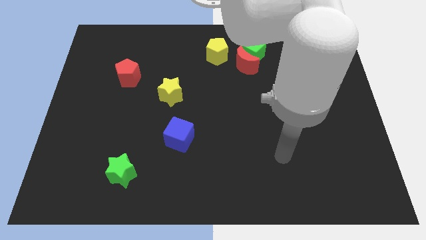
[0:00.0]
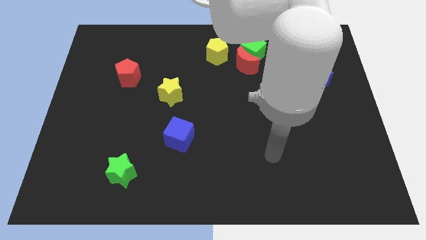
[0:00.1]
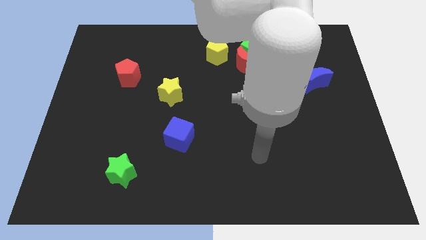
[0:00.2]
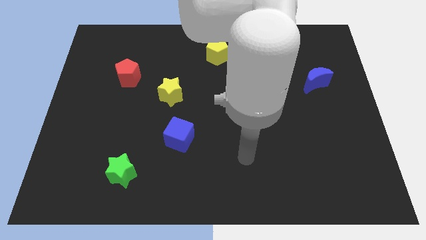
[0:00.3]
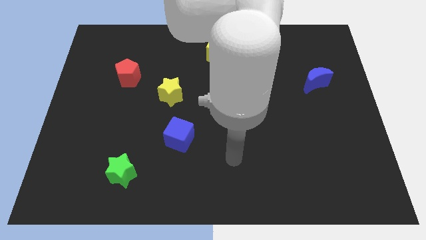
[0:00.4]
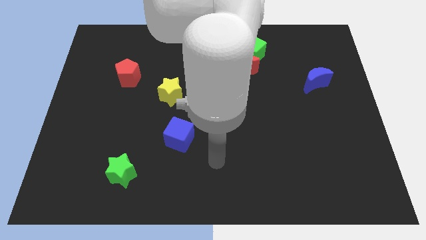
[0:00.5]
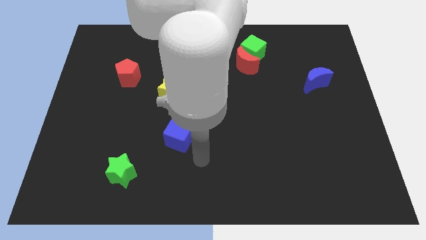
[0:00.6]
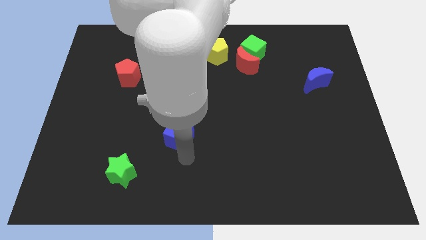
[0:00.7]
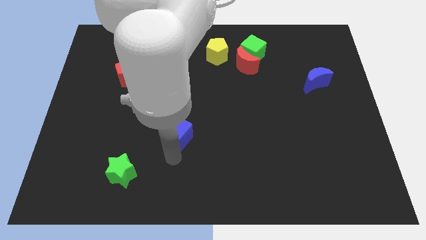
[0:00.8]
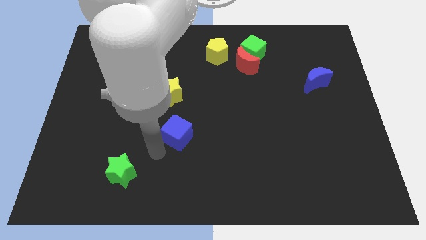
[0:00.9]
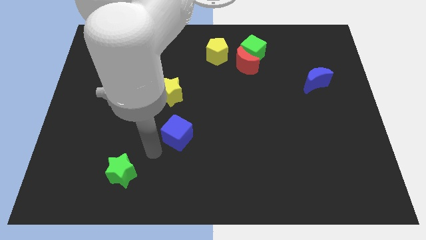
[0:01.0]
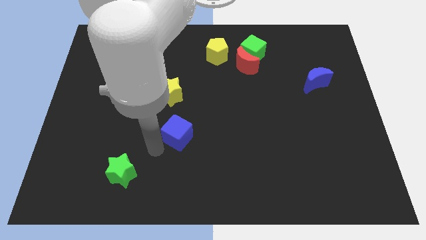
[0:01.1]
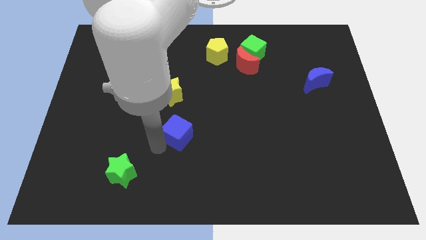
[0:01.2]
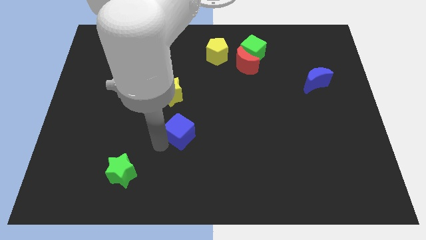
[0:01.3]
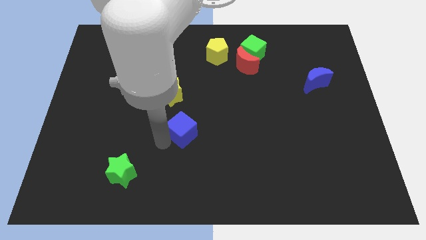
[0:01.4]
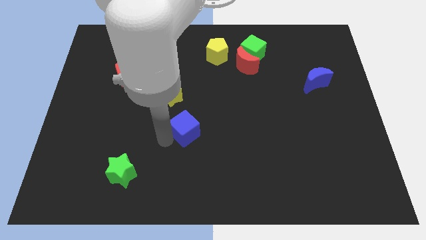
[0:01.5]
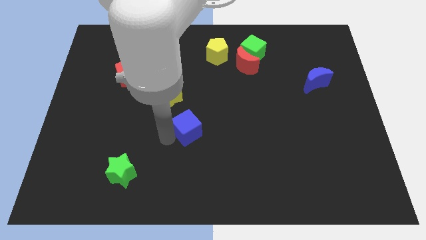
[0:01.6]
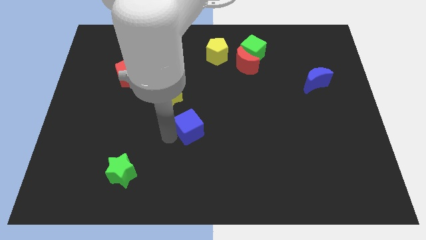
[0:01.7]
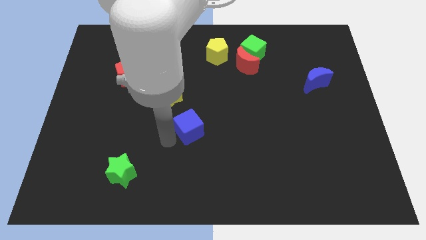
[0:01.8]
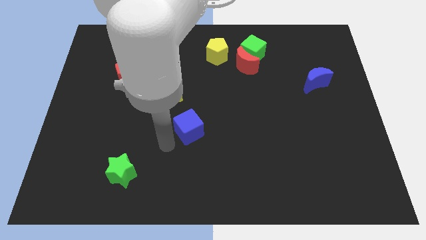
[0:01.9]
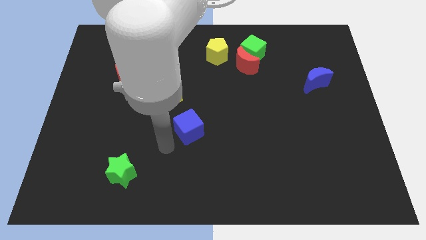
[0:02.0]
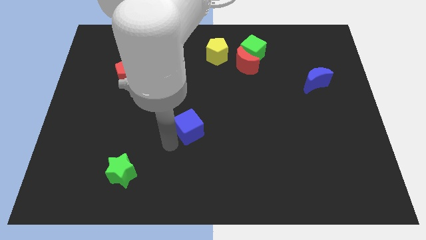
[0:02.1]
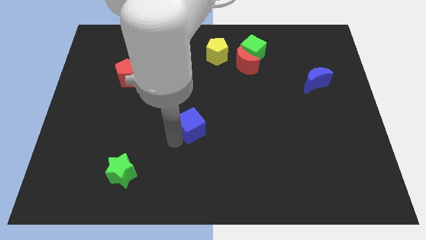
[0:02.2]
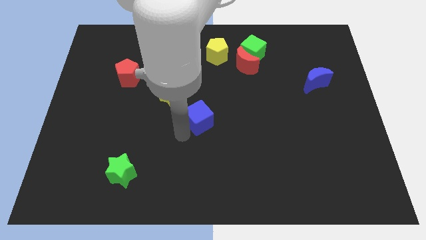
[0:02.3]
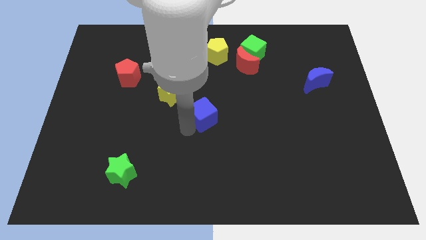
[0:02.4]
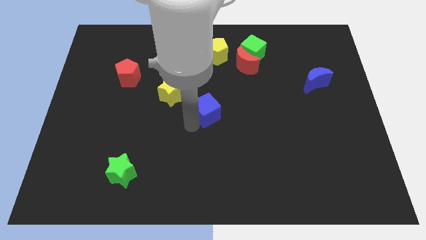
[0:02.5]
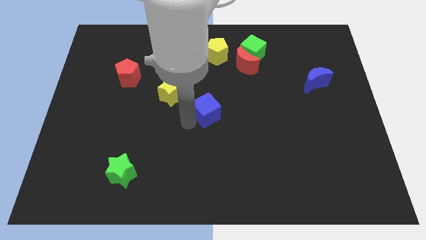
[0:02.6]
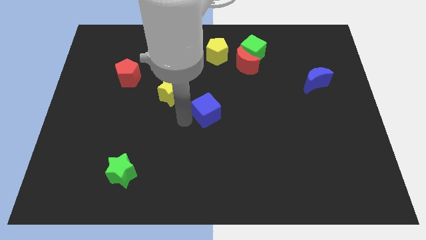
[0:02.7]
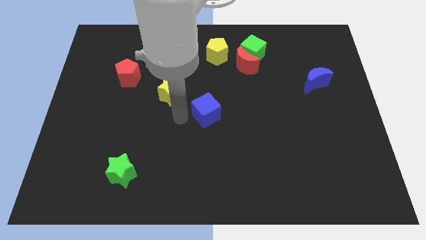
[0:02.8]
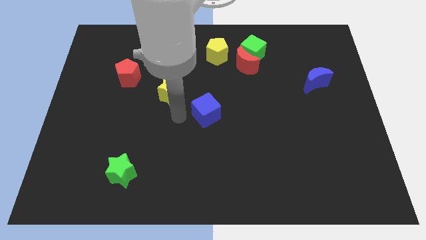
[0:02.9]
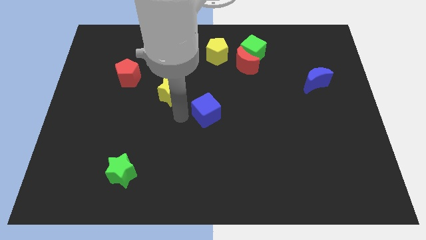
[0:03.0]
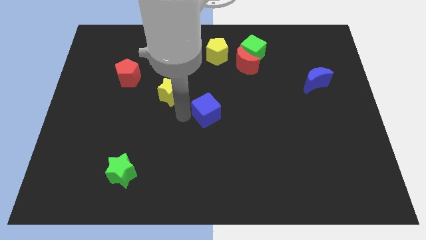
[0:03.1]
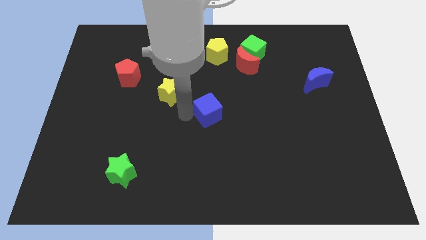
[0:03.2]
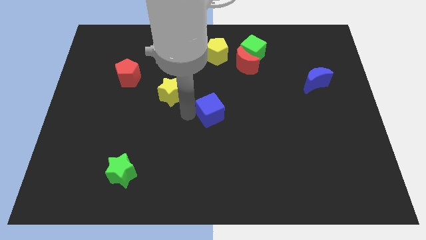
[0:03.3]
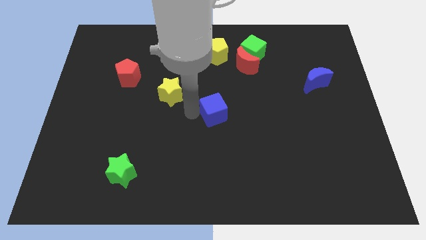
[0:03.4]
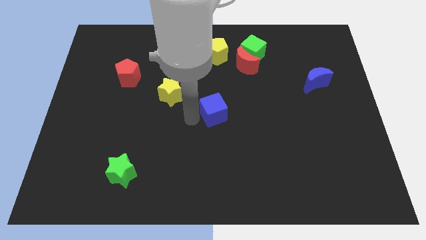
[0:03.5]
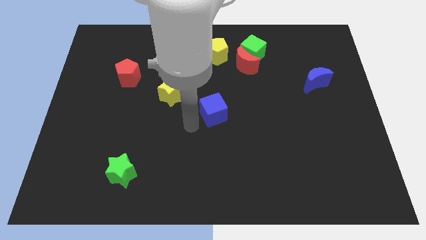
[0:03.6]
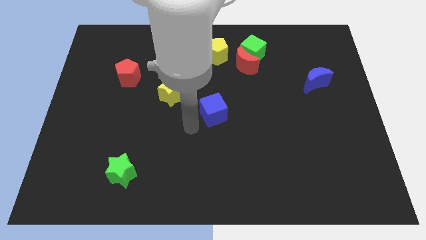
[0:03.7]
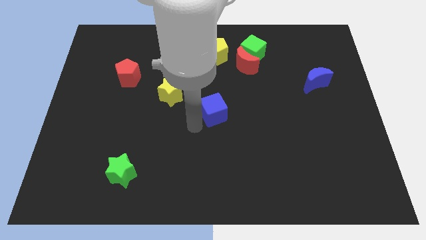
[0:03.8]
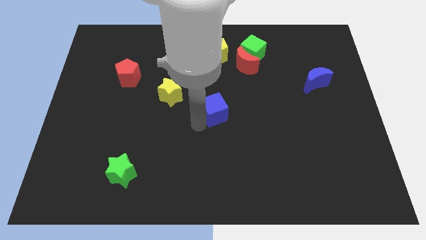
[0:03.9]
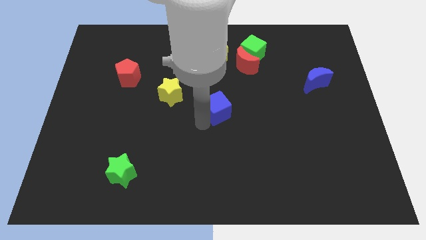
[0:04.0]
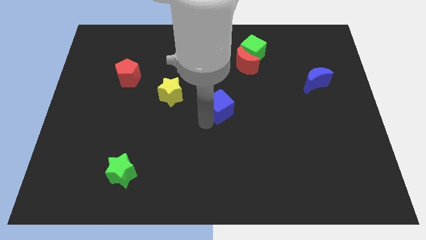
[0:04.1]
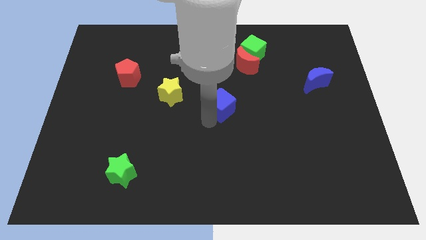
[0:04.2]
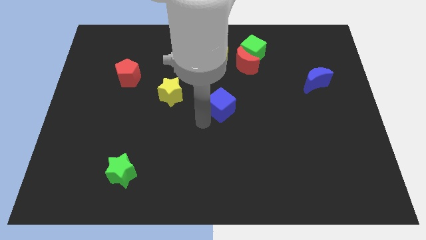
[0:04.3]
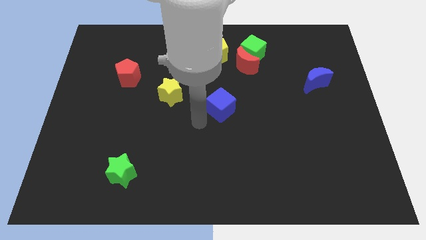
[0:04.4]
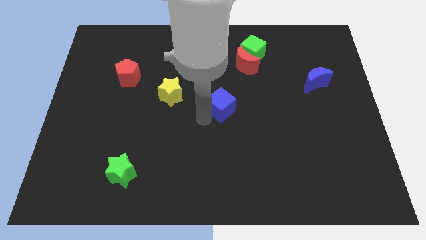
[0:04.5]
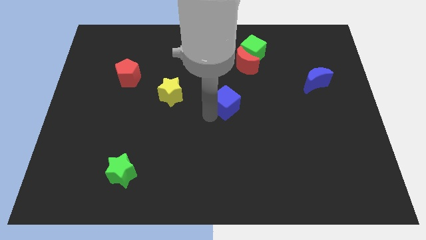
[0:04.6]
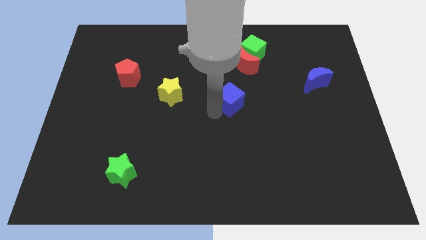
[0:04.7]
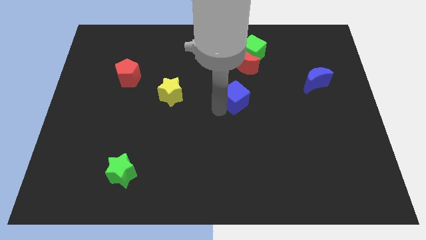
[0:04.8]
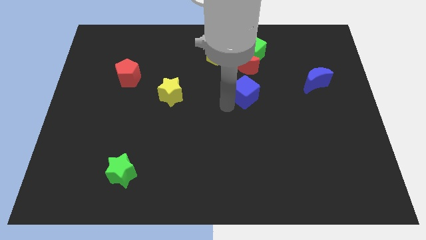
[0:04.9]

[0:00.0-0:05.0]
slide the blue cube below the green cube

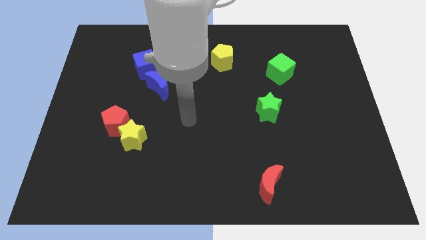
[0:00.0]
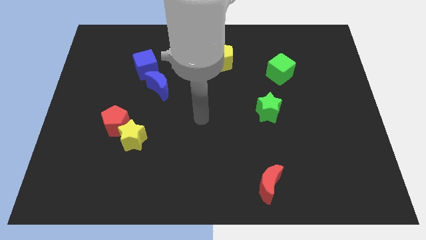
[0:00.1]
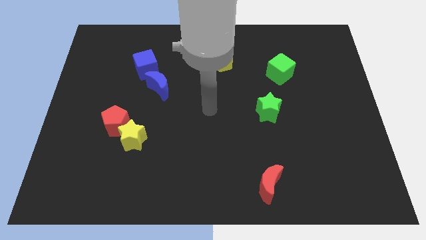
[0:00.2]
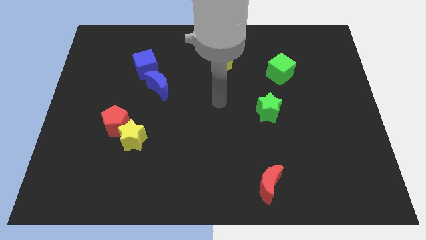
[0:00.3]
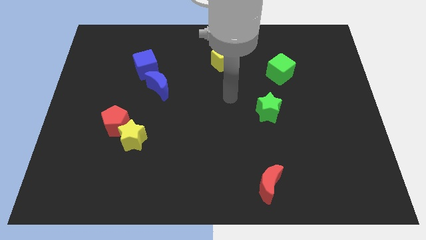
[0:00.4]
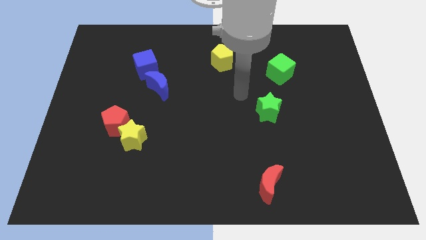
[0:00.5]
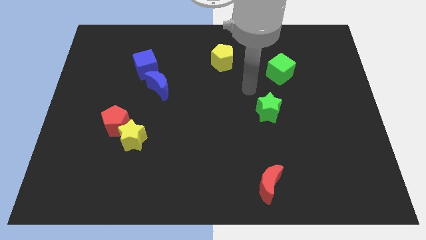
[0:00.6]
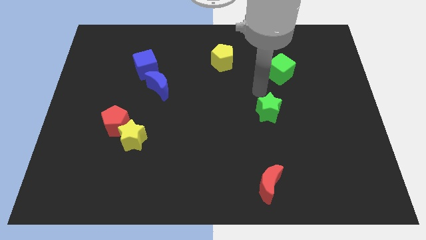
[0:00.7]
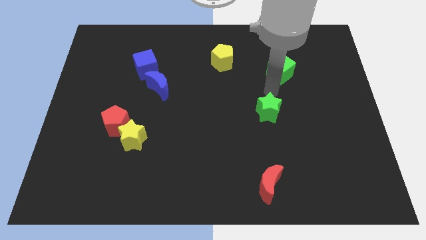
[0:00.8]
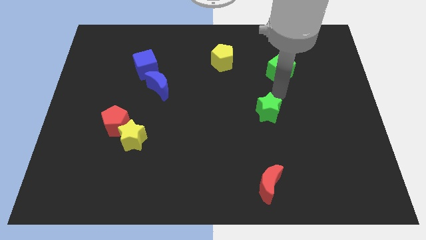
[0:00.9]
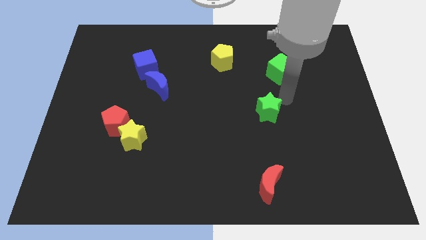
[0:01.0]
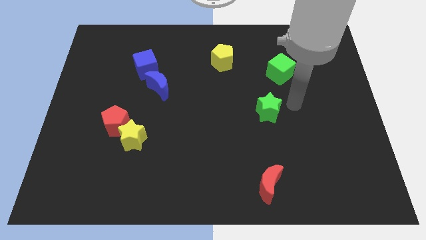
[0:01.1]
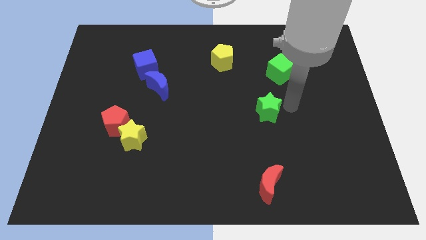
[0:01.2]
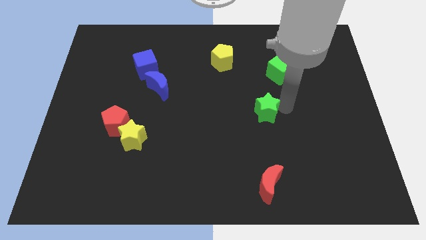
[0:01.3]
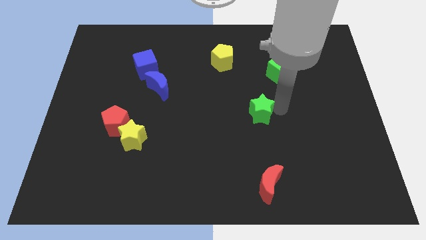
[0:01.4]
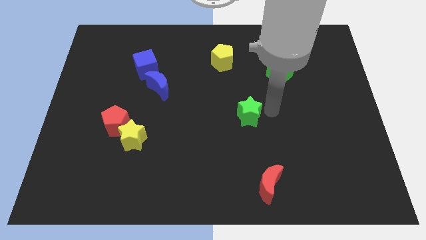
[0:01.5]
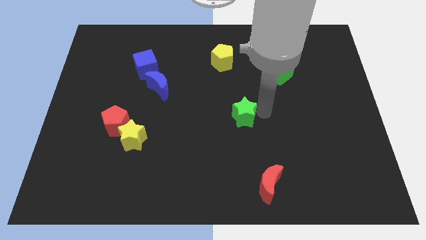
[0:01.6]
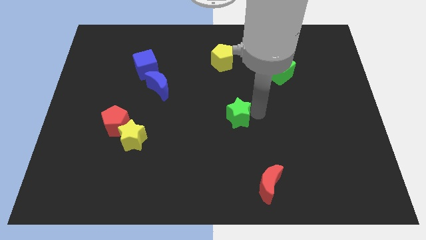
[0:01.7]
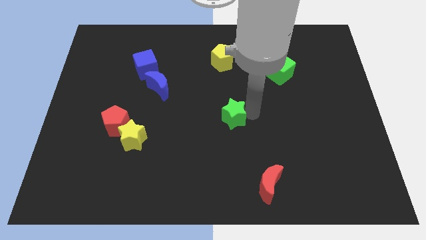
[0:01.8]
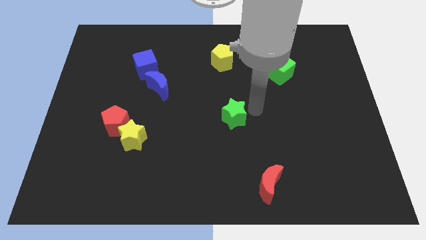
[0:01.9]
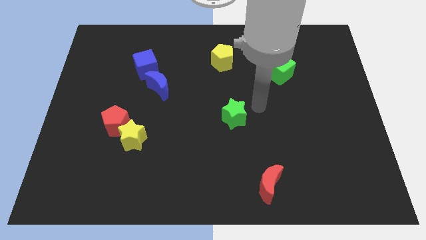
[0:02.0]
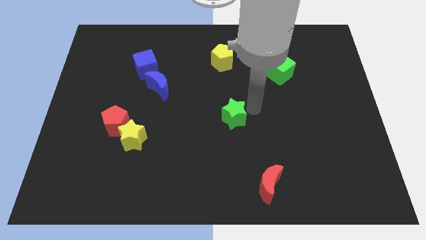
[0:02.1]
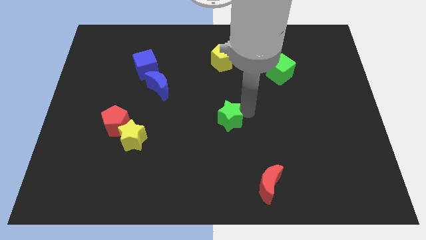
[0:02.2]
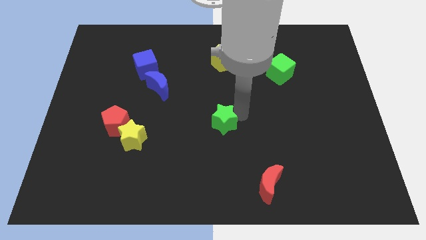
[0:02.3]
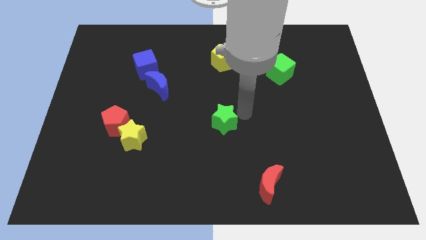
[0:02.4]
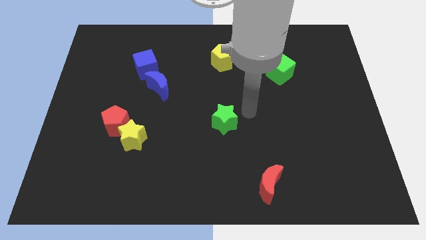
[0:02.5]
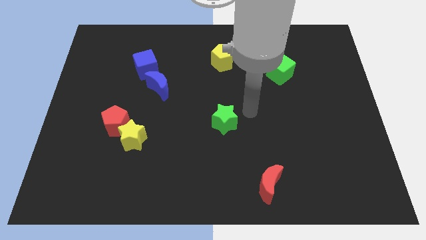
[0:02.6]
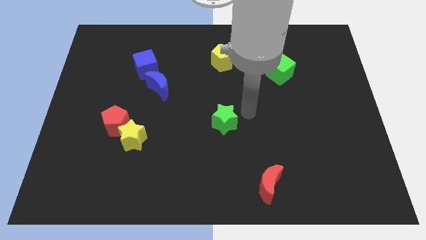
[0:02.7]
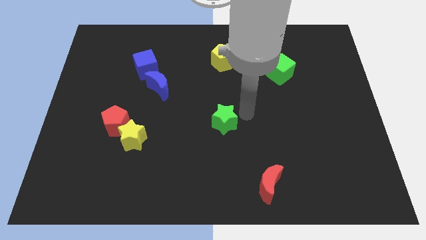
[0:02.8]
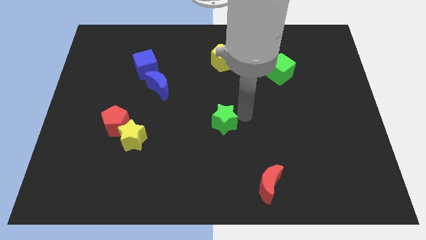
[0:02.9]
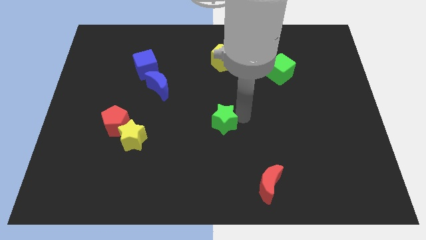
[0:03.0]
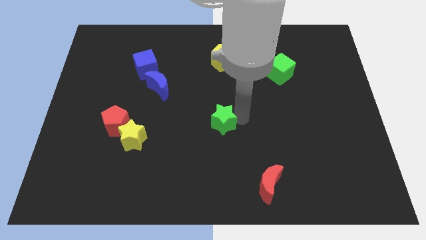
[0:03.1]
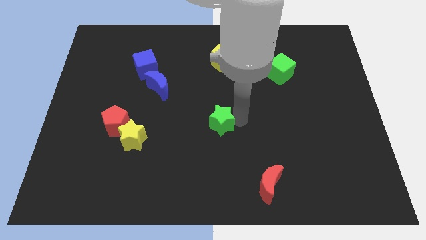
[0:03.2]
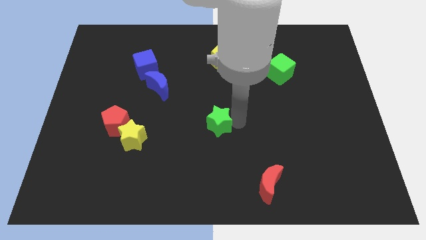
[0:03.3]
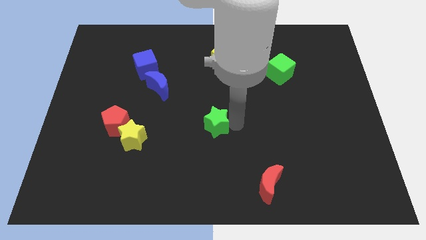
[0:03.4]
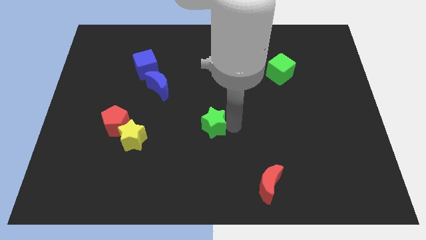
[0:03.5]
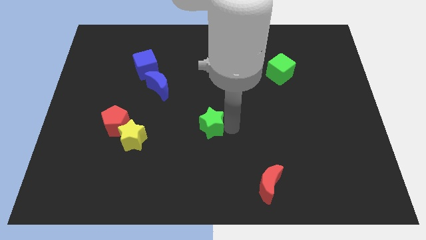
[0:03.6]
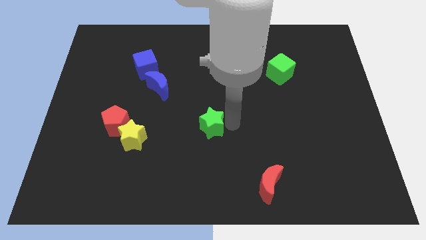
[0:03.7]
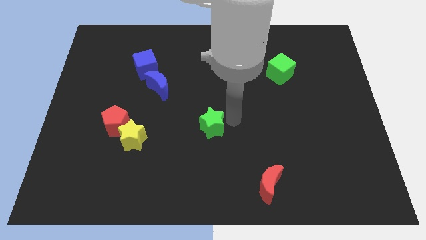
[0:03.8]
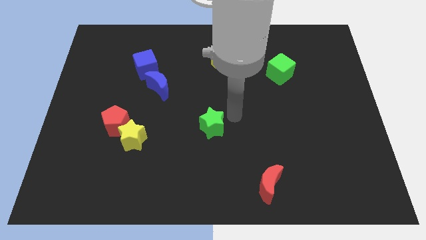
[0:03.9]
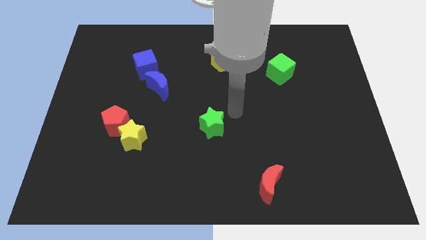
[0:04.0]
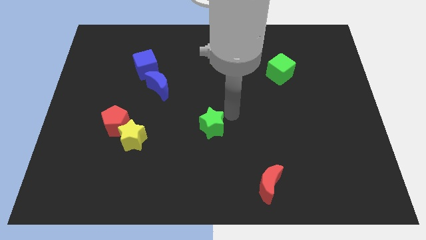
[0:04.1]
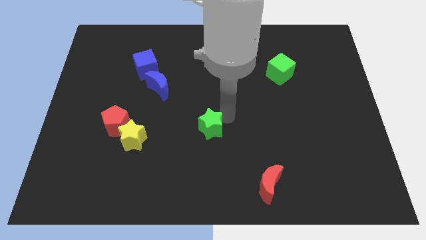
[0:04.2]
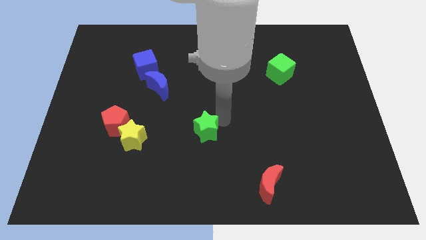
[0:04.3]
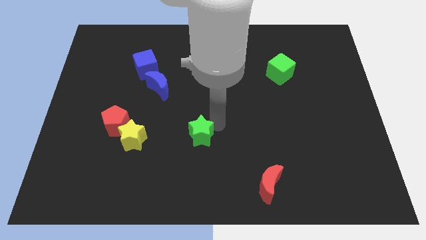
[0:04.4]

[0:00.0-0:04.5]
slide the green star just right of the yellow star
